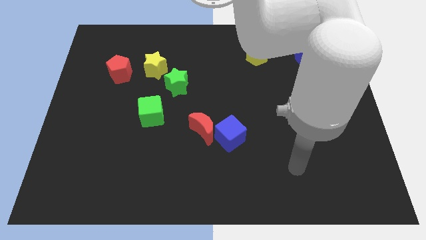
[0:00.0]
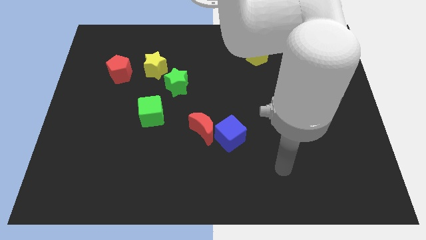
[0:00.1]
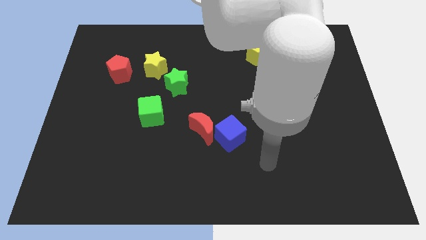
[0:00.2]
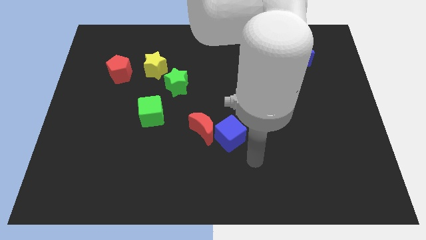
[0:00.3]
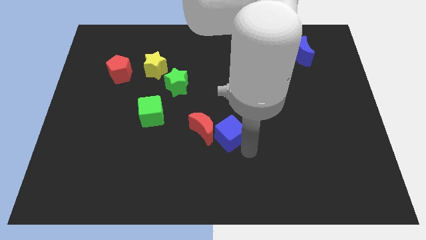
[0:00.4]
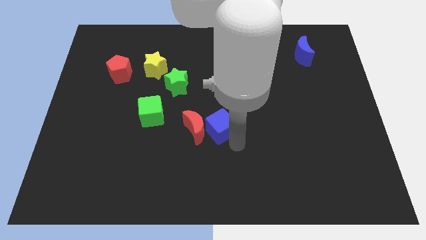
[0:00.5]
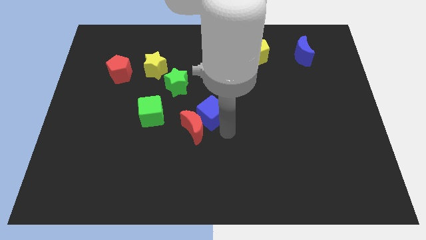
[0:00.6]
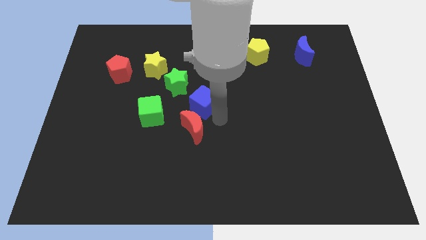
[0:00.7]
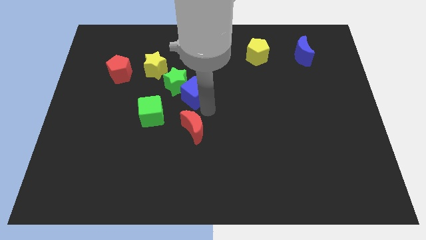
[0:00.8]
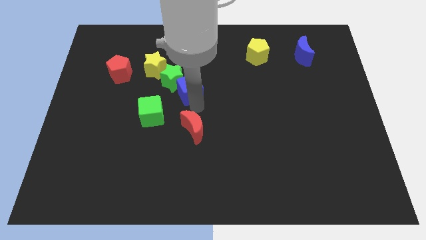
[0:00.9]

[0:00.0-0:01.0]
separate the red moon from the blue cube

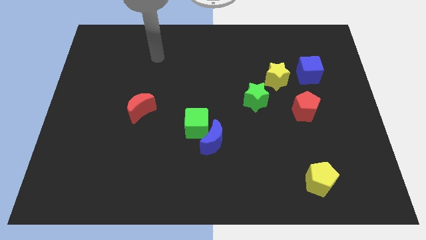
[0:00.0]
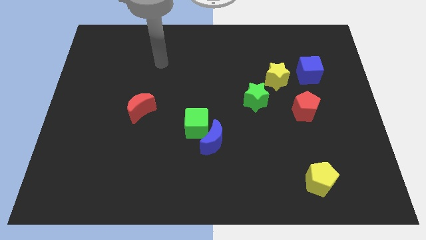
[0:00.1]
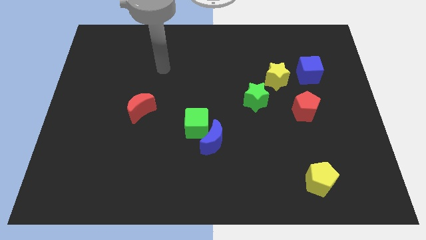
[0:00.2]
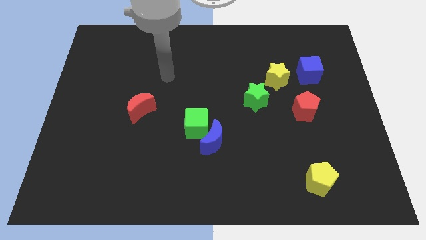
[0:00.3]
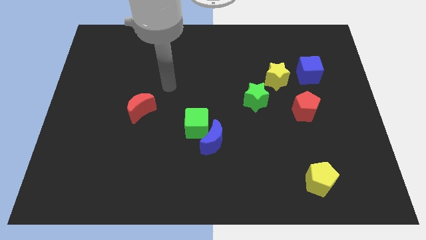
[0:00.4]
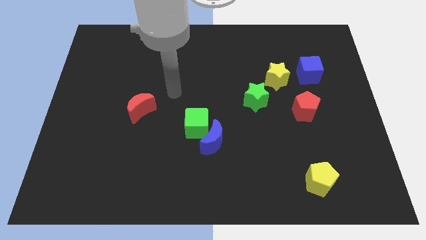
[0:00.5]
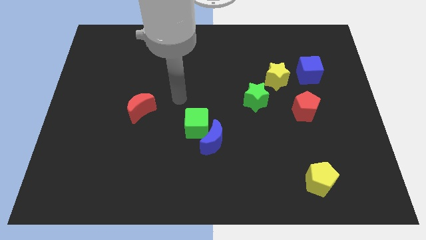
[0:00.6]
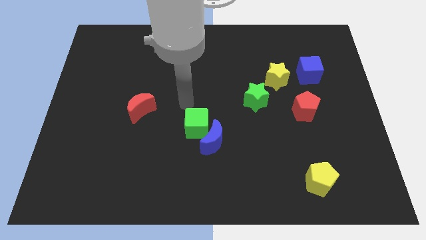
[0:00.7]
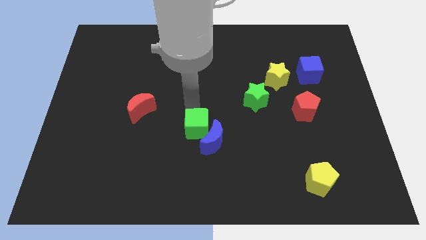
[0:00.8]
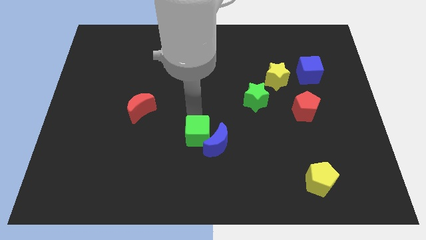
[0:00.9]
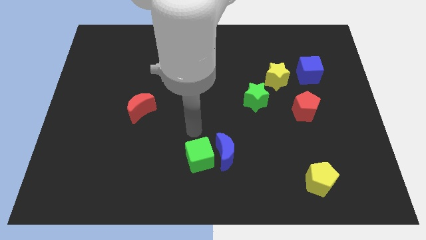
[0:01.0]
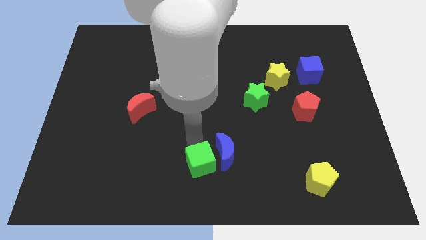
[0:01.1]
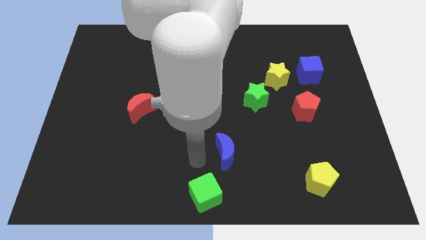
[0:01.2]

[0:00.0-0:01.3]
move the blue moon away from the green cube

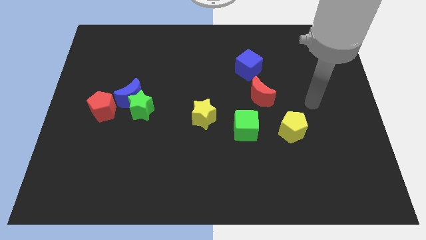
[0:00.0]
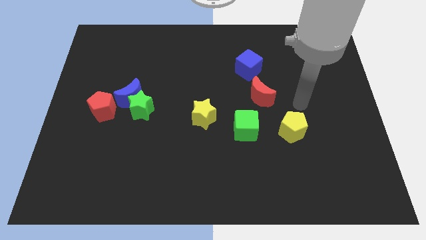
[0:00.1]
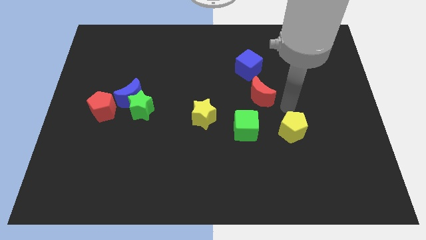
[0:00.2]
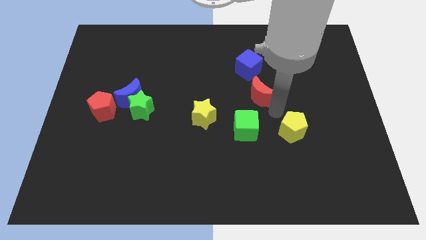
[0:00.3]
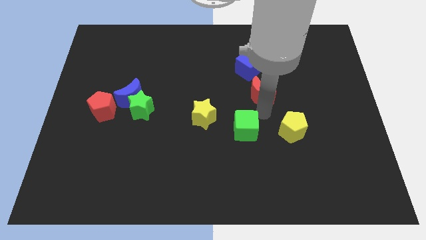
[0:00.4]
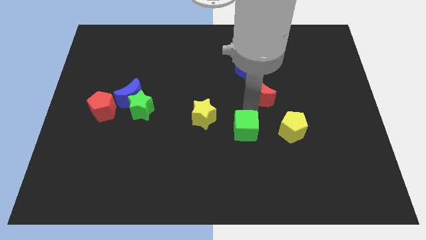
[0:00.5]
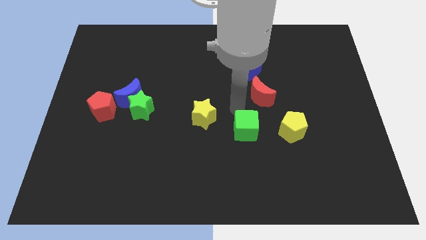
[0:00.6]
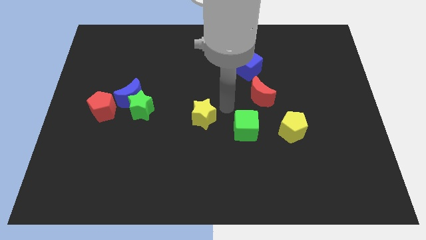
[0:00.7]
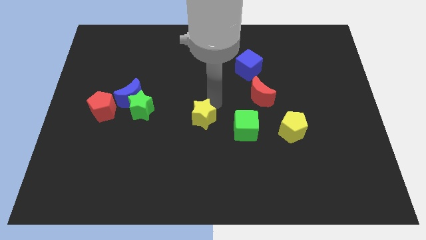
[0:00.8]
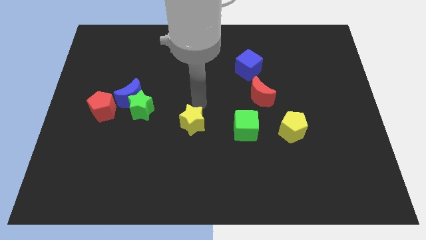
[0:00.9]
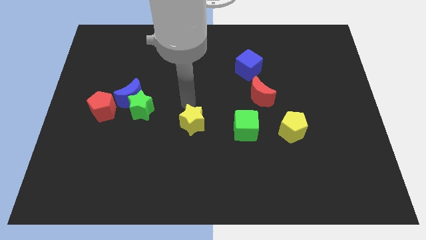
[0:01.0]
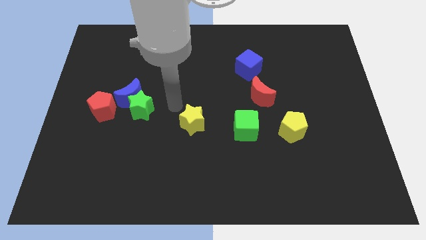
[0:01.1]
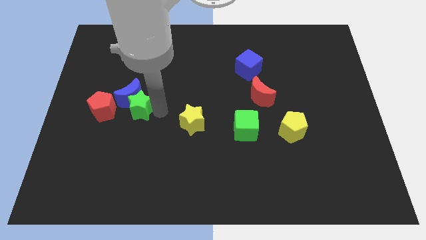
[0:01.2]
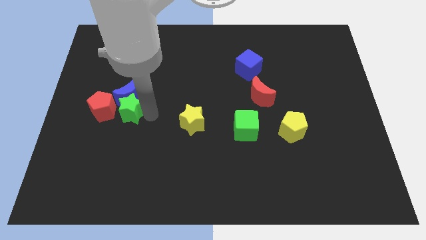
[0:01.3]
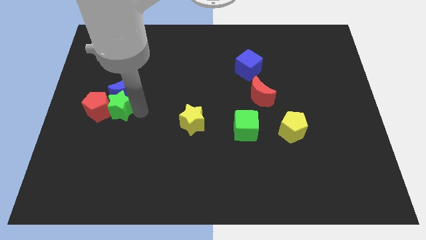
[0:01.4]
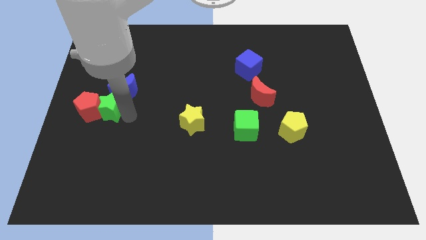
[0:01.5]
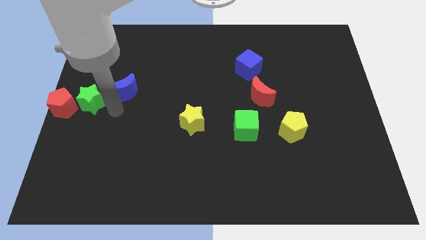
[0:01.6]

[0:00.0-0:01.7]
move the blue moon away from the green star and red pentagon

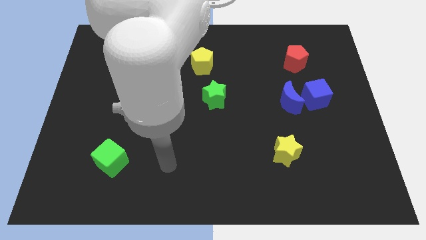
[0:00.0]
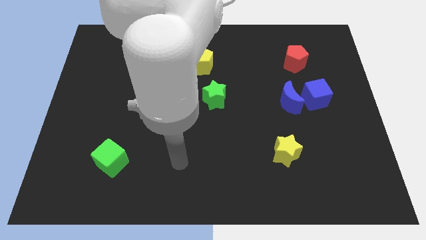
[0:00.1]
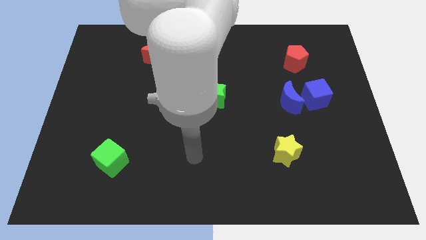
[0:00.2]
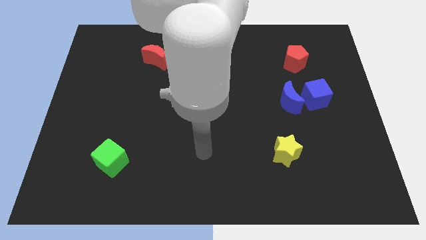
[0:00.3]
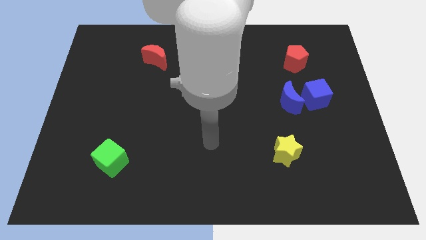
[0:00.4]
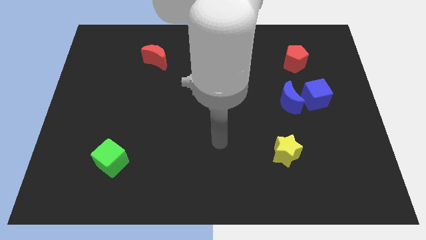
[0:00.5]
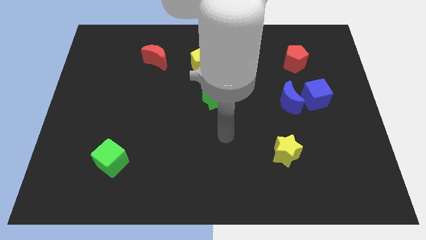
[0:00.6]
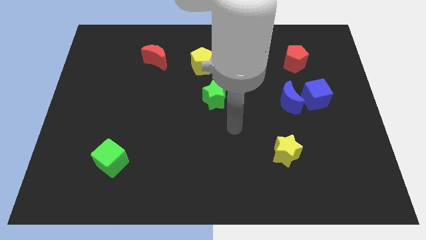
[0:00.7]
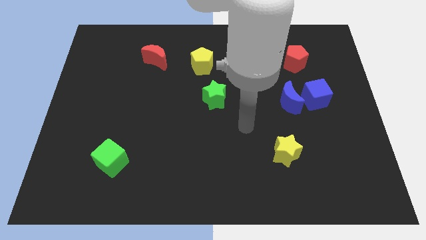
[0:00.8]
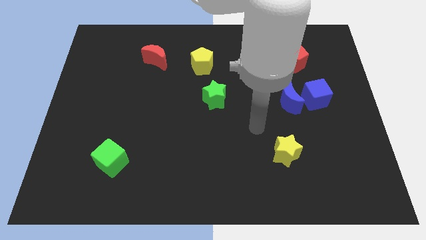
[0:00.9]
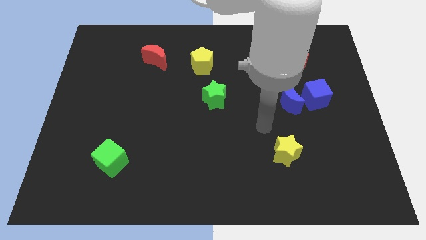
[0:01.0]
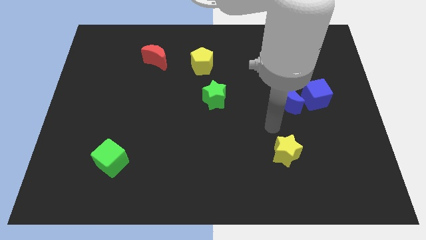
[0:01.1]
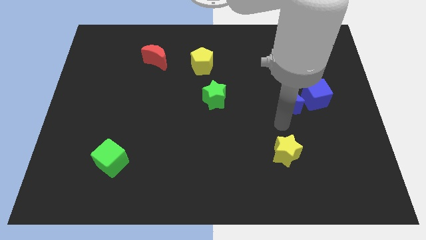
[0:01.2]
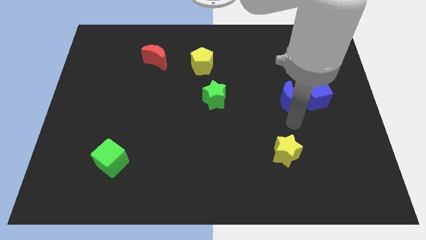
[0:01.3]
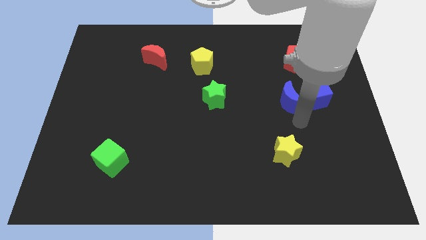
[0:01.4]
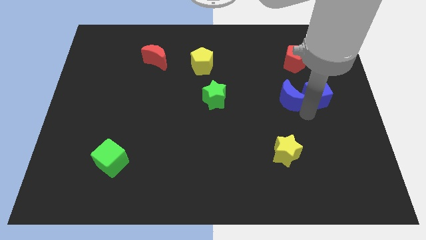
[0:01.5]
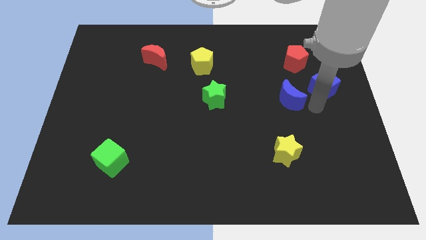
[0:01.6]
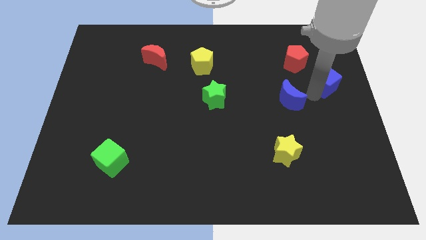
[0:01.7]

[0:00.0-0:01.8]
pull the blue moon apart from the blue cube

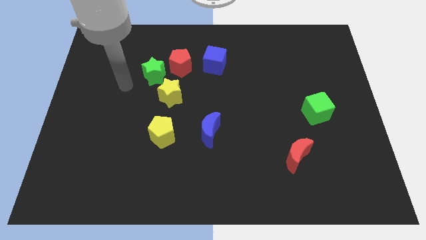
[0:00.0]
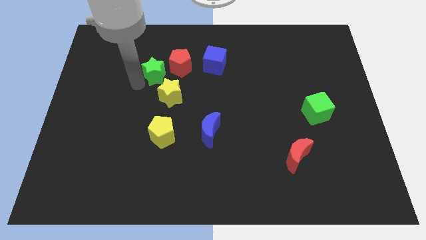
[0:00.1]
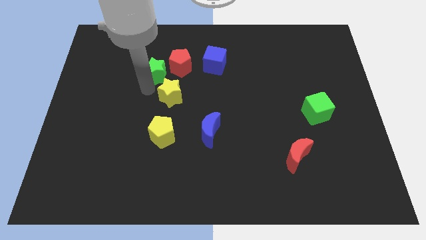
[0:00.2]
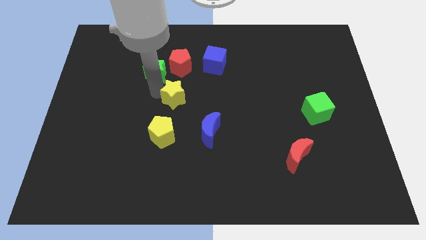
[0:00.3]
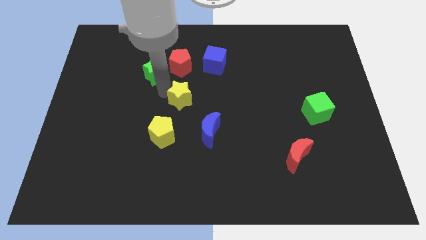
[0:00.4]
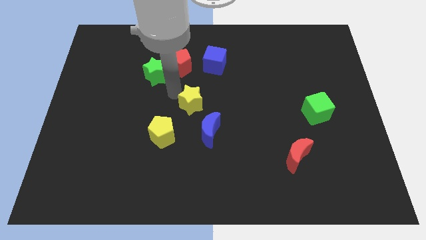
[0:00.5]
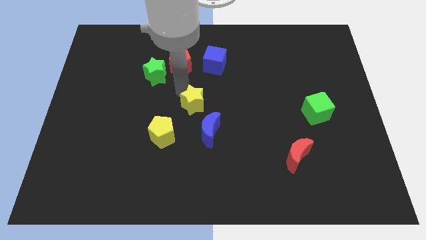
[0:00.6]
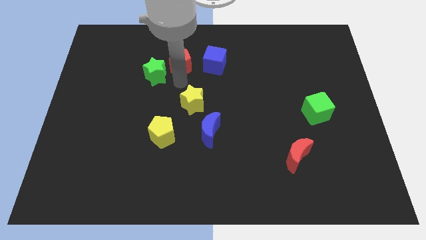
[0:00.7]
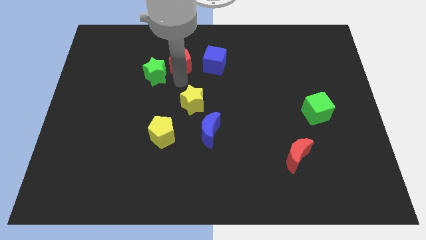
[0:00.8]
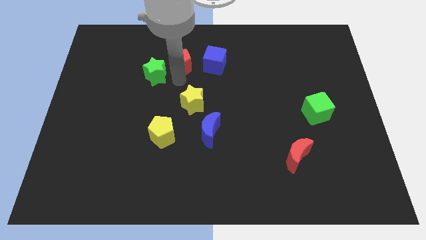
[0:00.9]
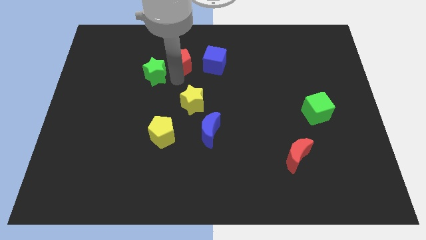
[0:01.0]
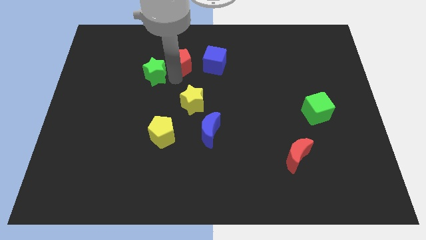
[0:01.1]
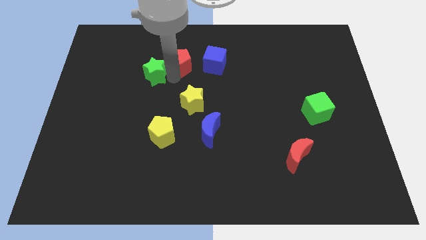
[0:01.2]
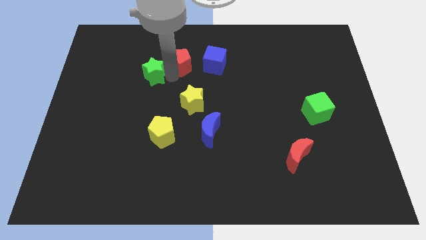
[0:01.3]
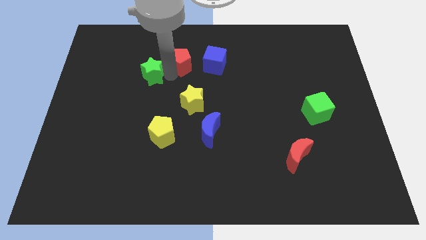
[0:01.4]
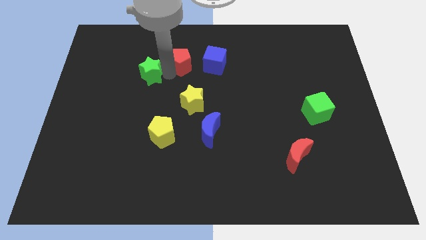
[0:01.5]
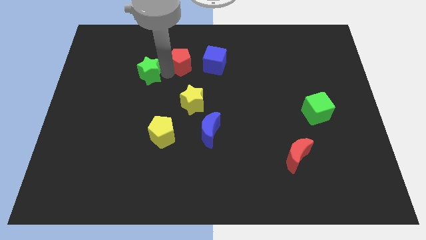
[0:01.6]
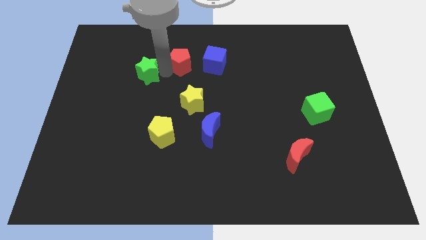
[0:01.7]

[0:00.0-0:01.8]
move the green star away from the red pentagon and yellow star

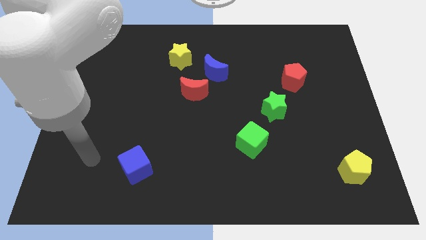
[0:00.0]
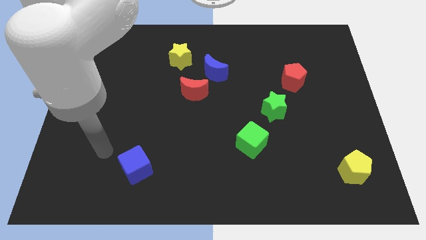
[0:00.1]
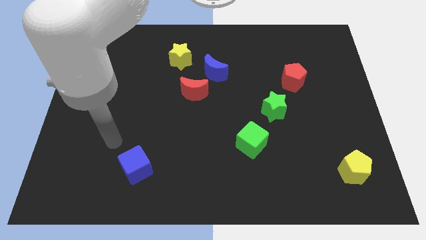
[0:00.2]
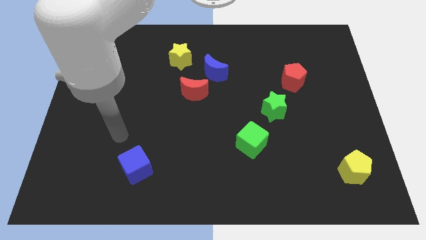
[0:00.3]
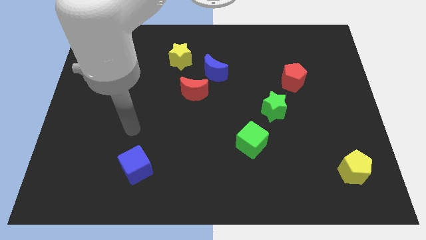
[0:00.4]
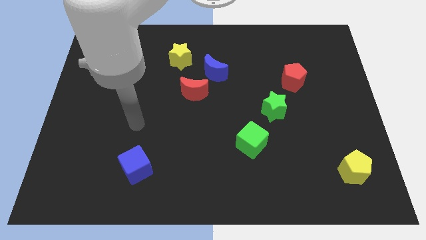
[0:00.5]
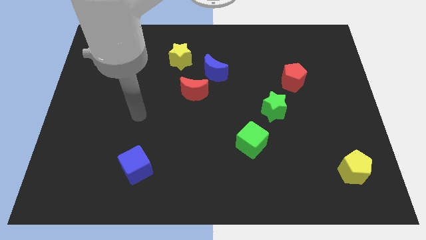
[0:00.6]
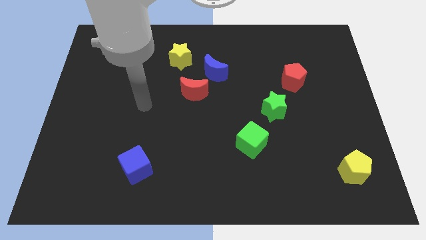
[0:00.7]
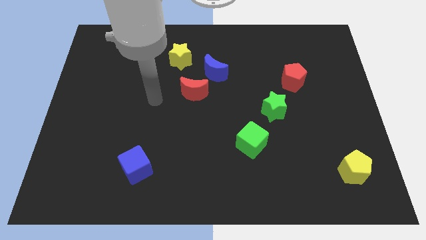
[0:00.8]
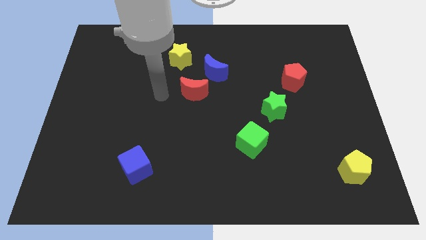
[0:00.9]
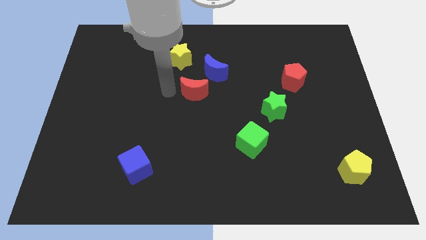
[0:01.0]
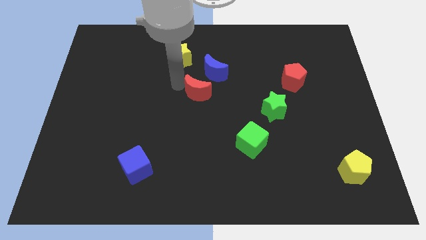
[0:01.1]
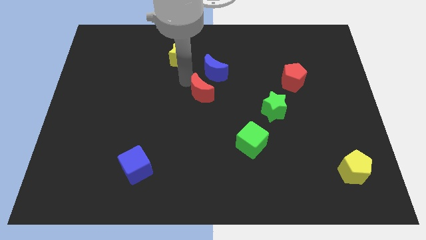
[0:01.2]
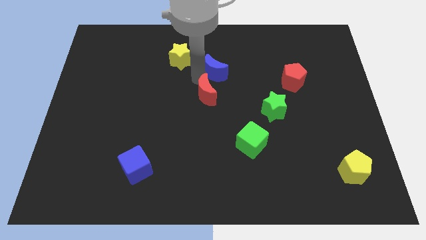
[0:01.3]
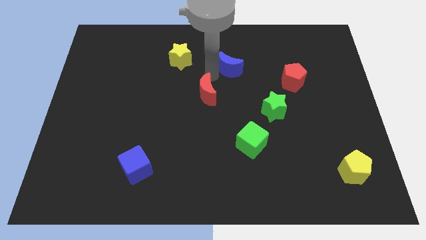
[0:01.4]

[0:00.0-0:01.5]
pull the red moon apart from the blue moon

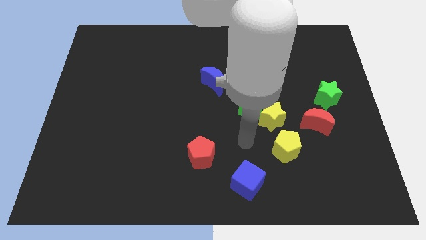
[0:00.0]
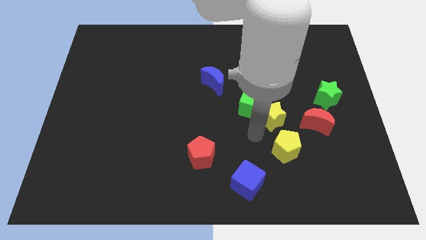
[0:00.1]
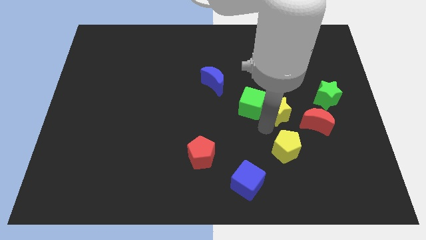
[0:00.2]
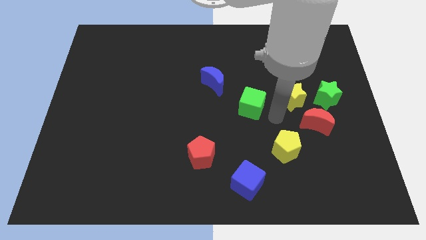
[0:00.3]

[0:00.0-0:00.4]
pull the green cube apart from the yellow star
